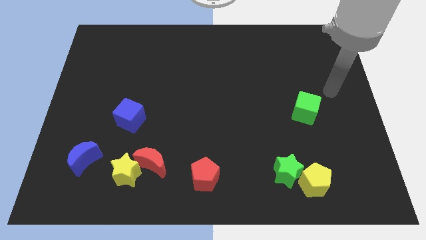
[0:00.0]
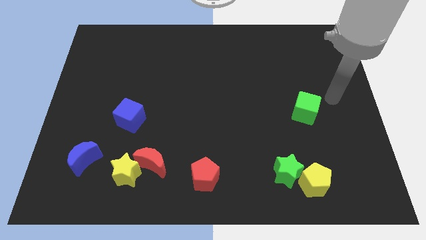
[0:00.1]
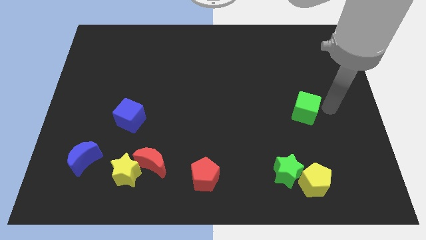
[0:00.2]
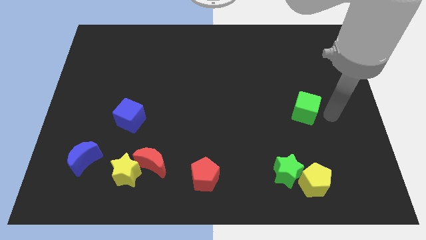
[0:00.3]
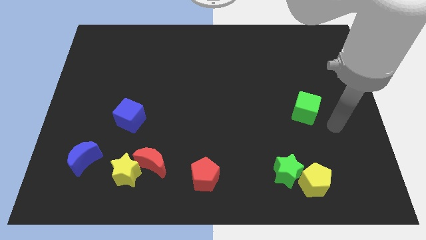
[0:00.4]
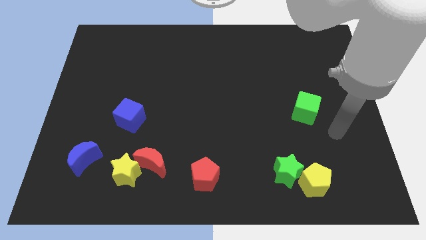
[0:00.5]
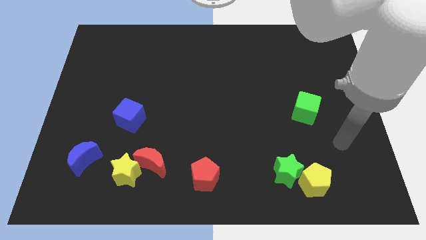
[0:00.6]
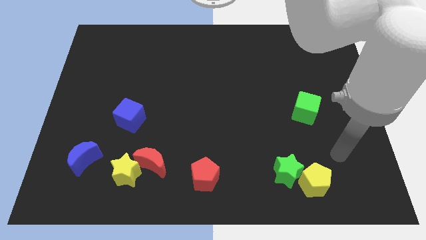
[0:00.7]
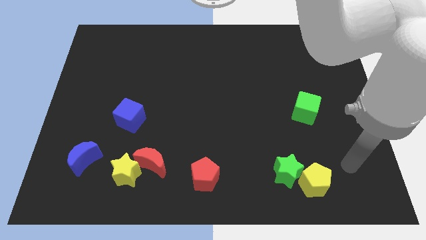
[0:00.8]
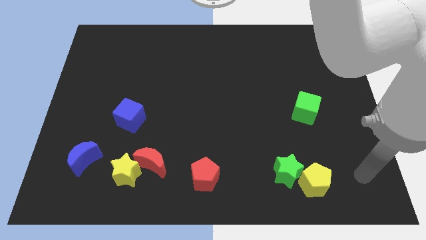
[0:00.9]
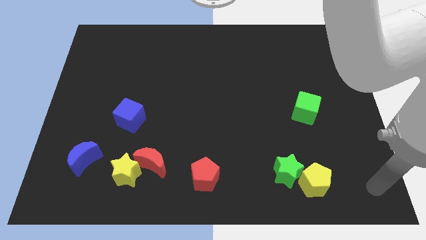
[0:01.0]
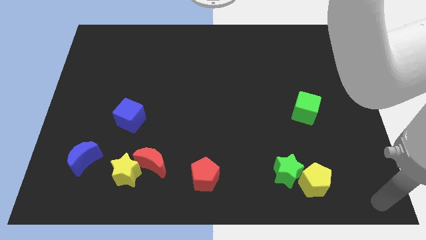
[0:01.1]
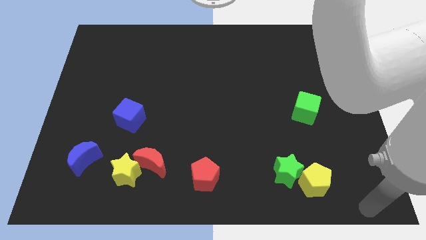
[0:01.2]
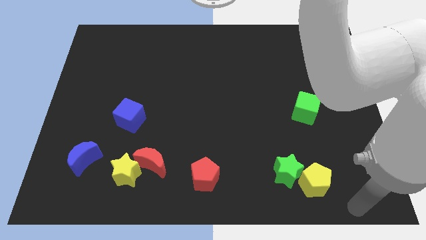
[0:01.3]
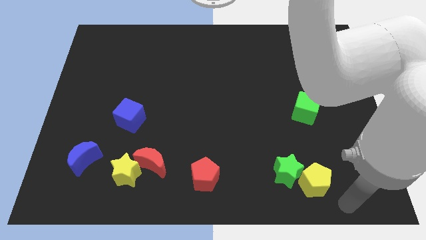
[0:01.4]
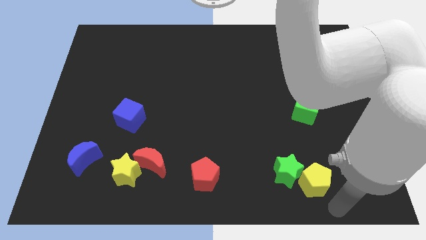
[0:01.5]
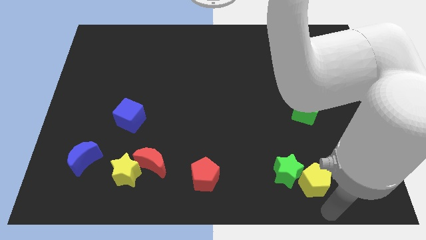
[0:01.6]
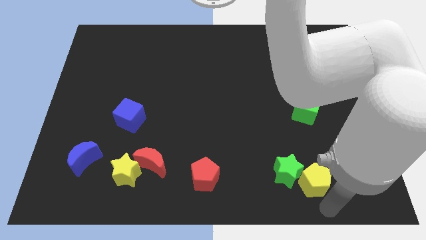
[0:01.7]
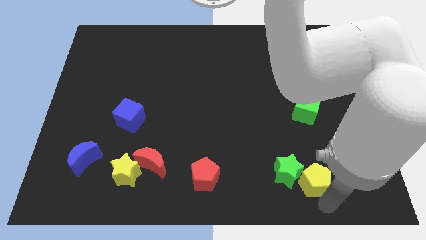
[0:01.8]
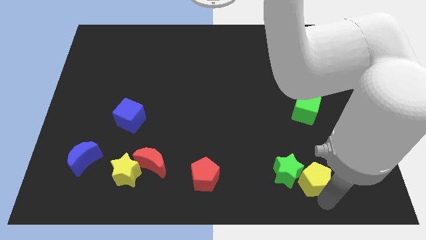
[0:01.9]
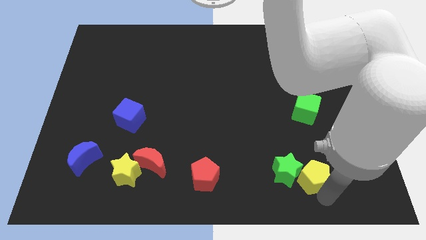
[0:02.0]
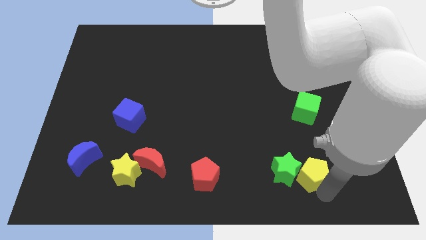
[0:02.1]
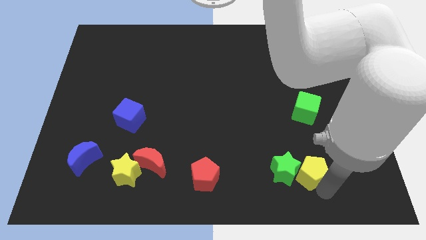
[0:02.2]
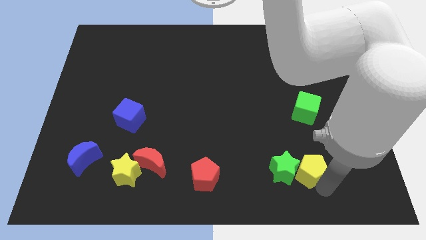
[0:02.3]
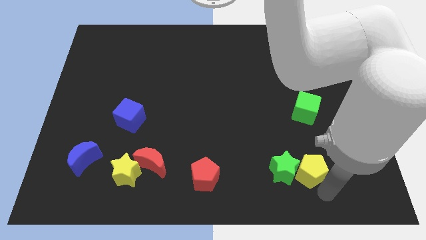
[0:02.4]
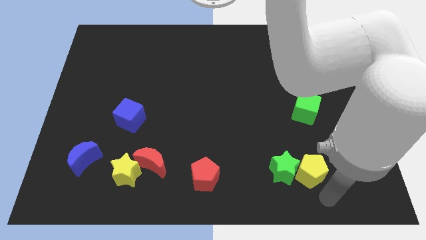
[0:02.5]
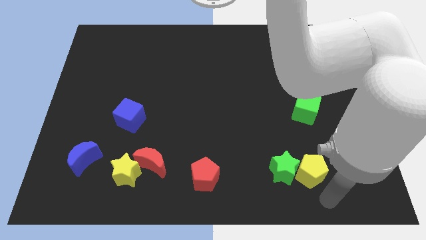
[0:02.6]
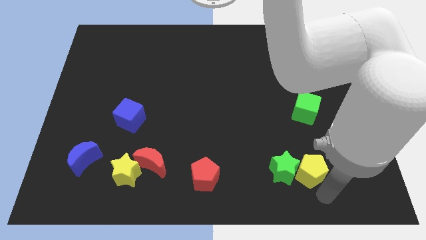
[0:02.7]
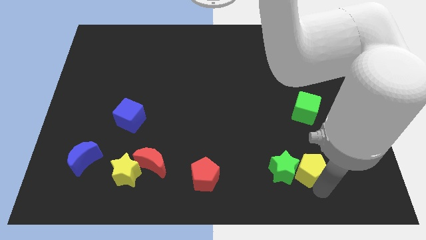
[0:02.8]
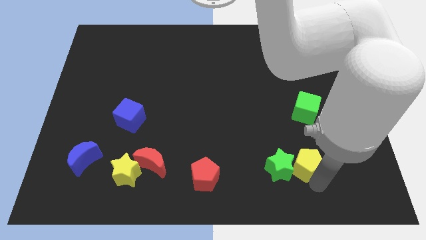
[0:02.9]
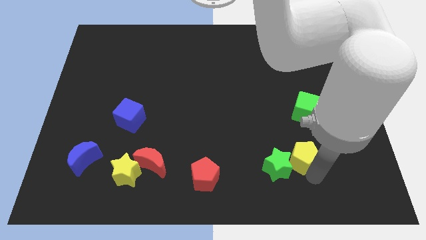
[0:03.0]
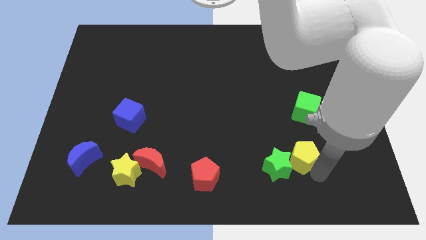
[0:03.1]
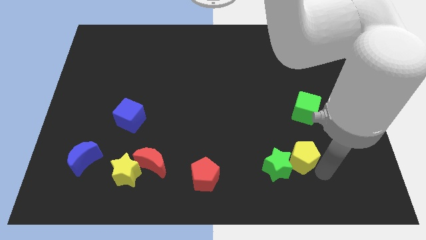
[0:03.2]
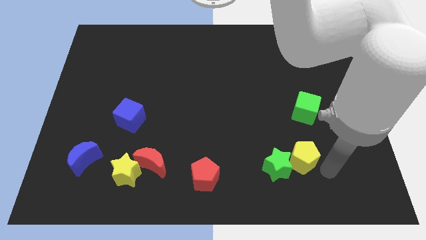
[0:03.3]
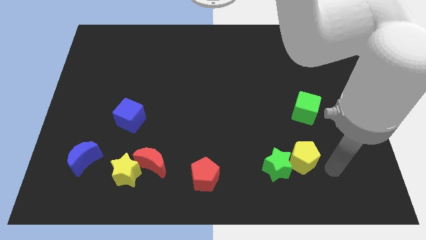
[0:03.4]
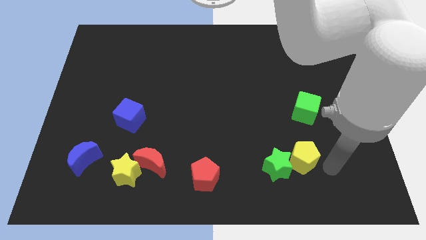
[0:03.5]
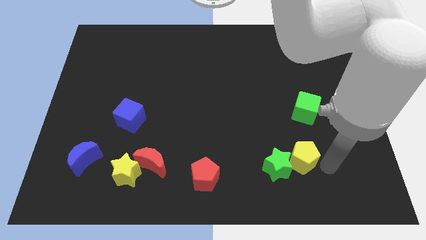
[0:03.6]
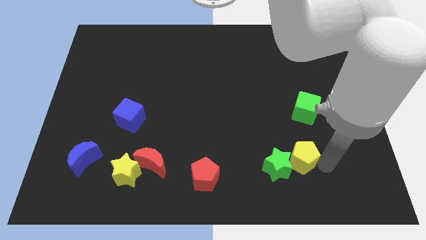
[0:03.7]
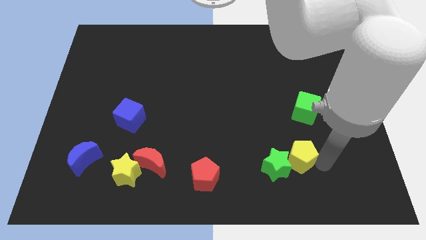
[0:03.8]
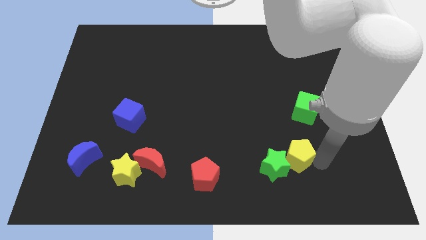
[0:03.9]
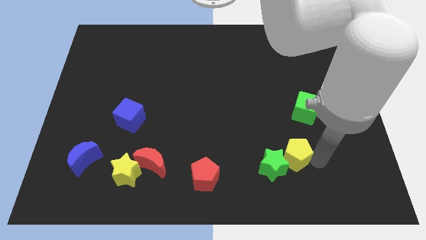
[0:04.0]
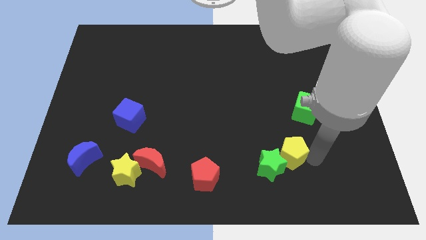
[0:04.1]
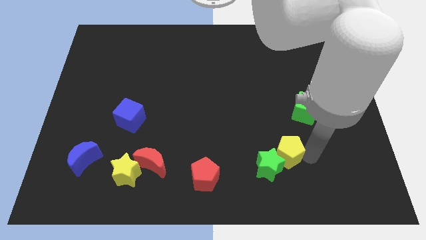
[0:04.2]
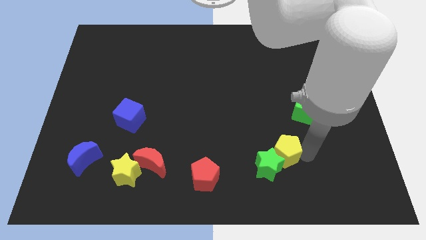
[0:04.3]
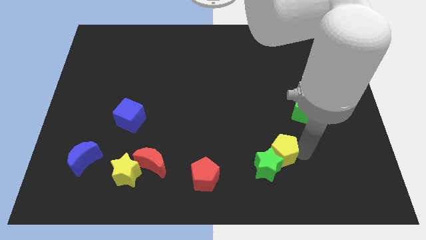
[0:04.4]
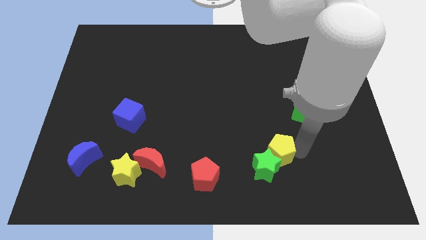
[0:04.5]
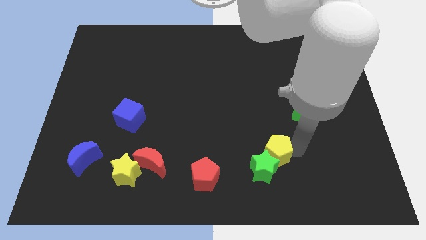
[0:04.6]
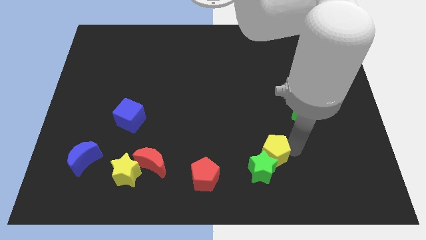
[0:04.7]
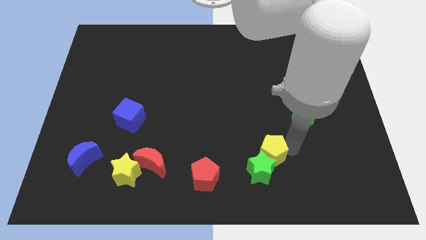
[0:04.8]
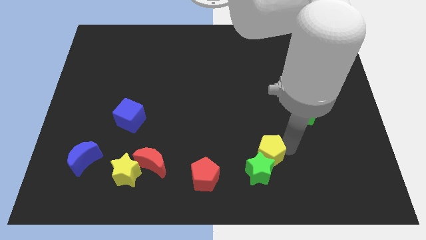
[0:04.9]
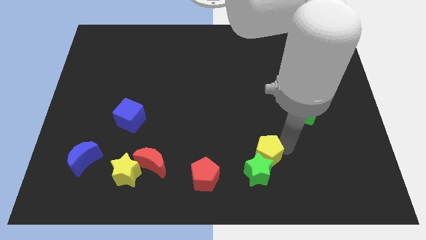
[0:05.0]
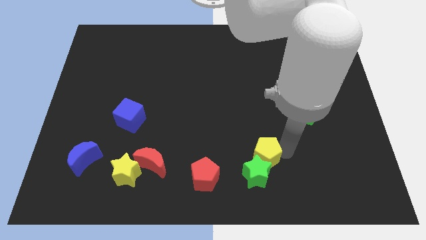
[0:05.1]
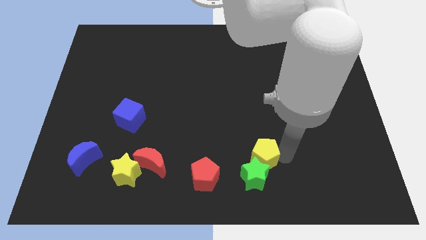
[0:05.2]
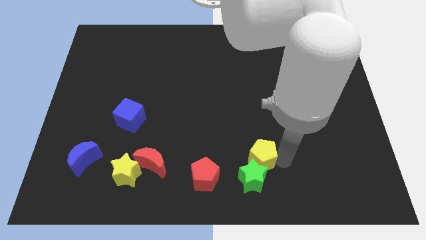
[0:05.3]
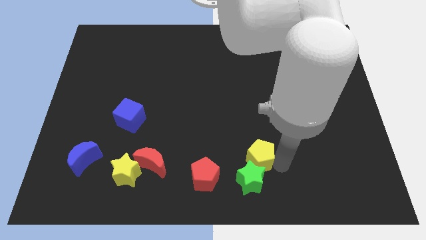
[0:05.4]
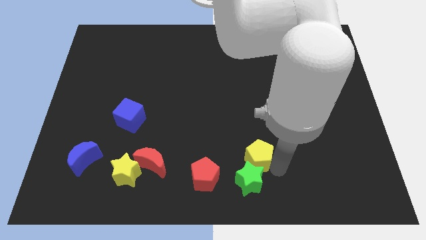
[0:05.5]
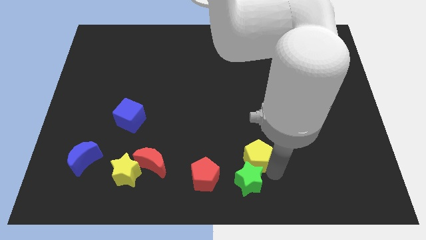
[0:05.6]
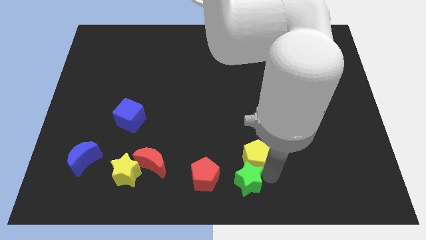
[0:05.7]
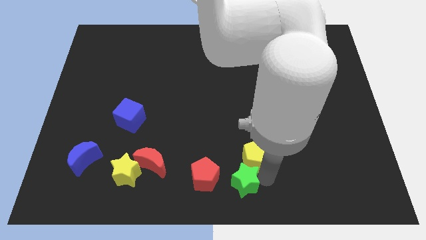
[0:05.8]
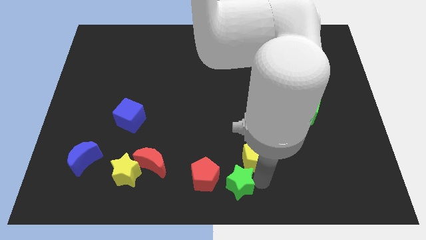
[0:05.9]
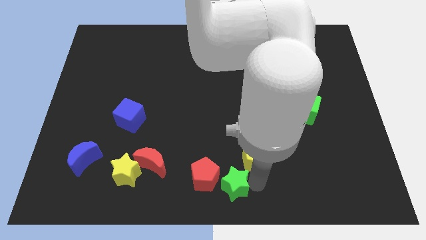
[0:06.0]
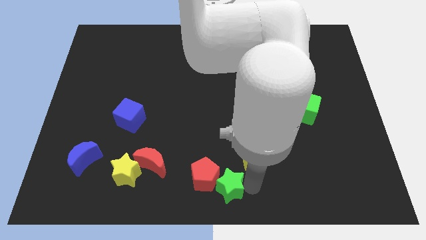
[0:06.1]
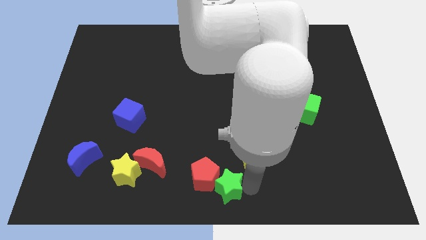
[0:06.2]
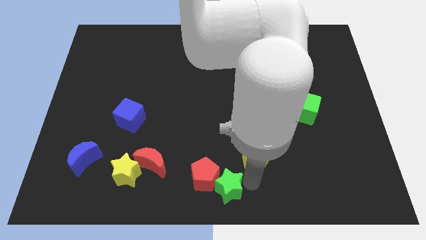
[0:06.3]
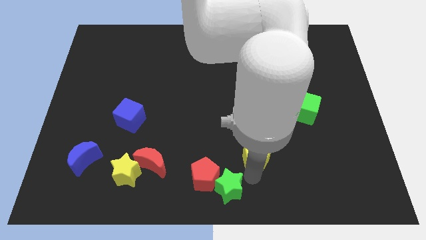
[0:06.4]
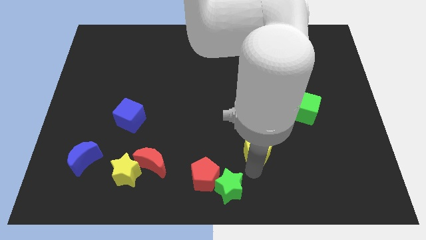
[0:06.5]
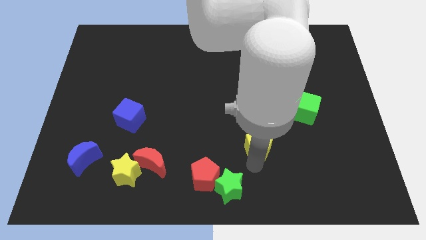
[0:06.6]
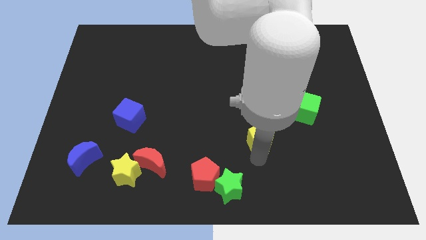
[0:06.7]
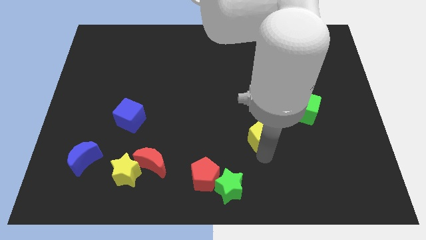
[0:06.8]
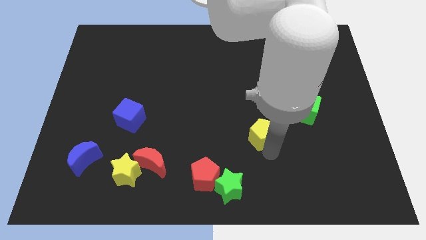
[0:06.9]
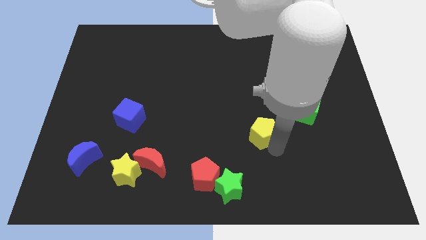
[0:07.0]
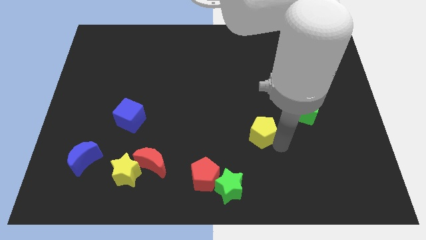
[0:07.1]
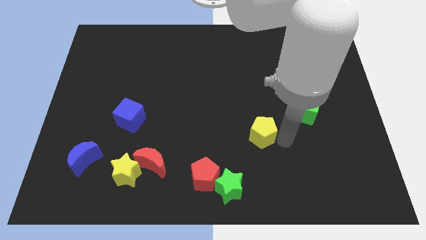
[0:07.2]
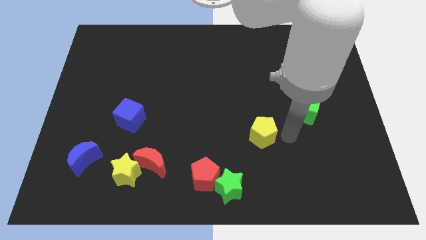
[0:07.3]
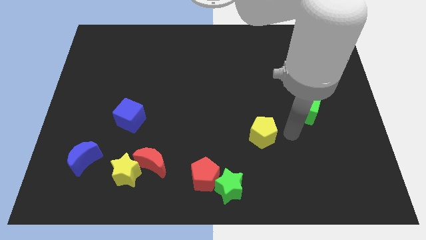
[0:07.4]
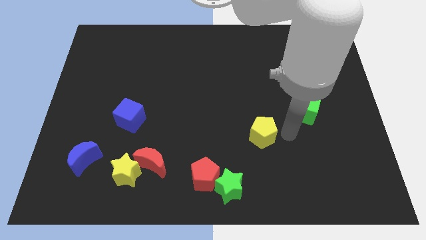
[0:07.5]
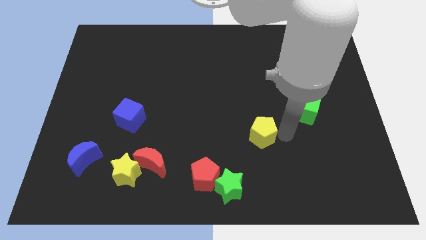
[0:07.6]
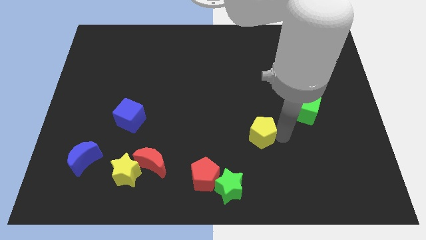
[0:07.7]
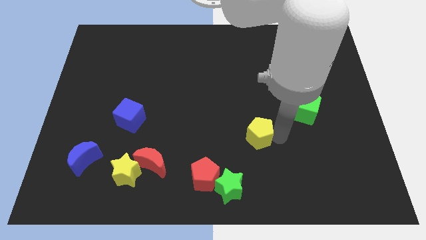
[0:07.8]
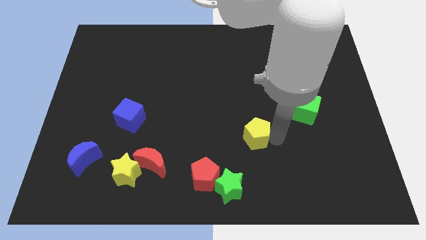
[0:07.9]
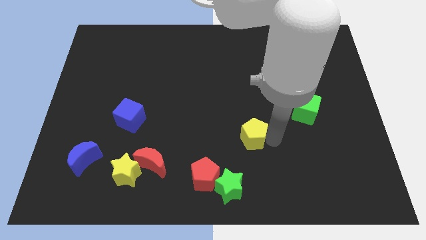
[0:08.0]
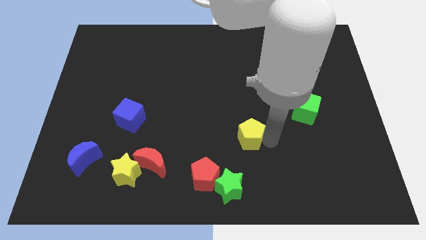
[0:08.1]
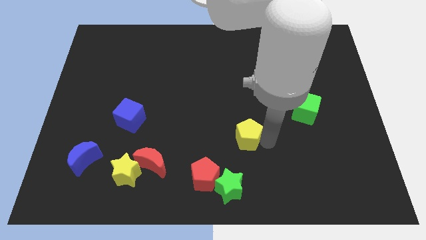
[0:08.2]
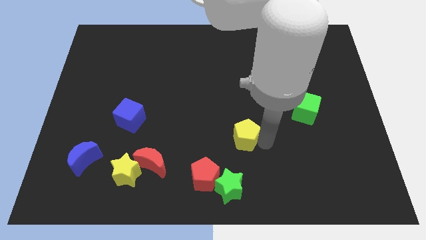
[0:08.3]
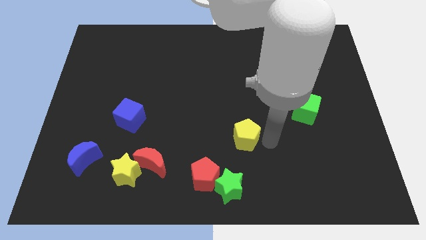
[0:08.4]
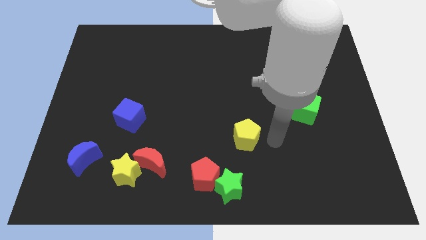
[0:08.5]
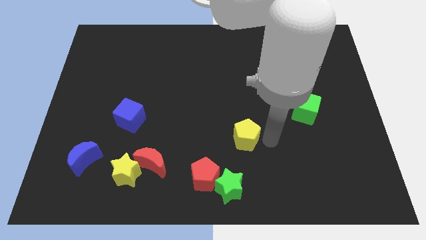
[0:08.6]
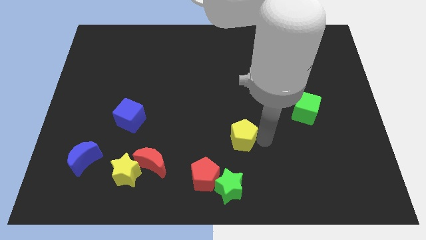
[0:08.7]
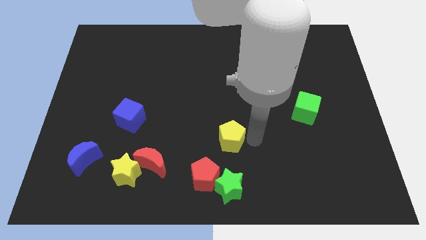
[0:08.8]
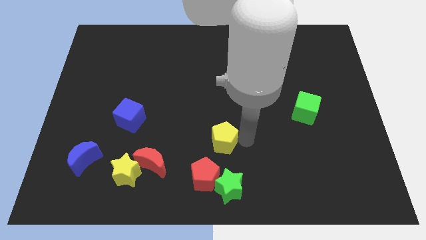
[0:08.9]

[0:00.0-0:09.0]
slide the yellow pentagon above the red pentagon
